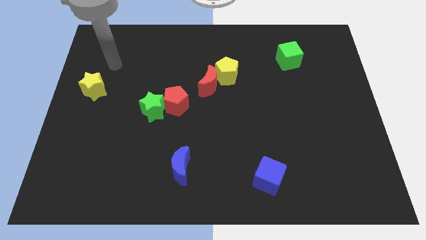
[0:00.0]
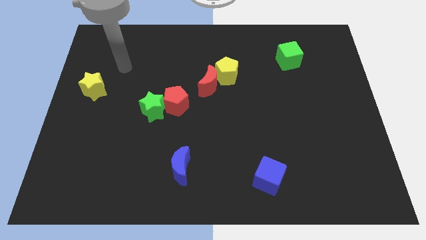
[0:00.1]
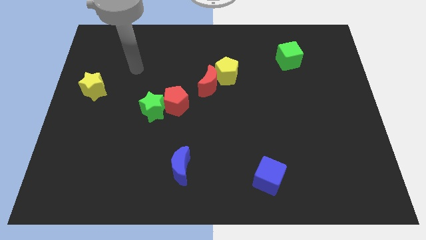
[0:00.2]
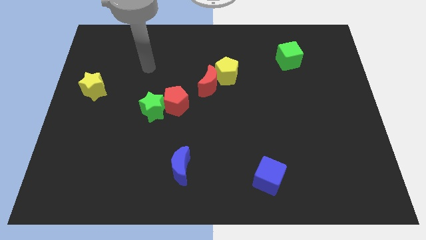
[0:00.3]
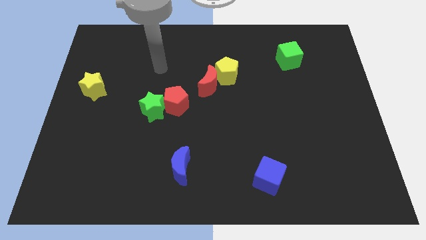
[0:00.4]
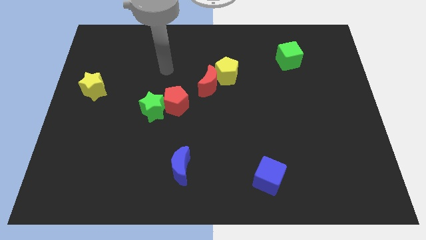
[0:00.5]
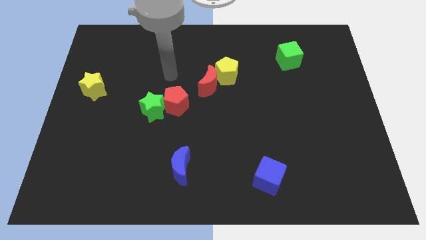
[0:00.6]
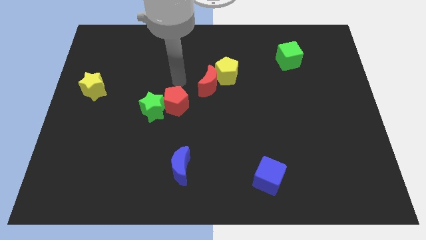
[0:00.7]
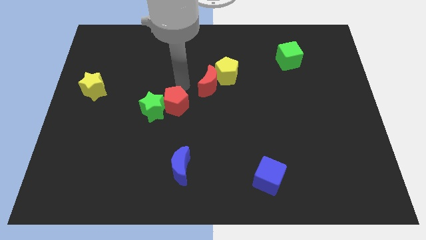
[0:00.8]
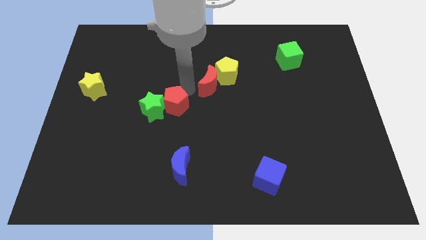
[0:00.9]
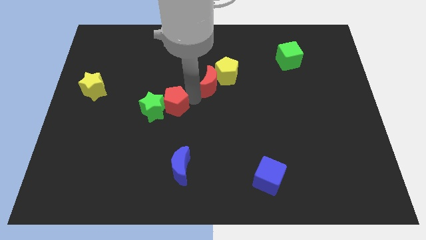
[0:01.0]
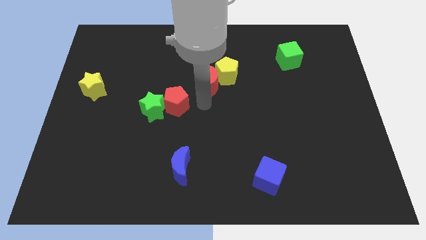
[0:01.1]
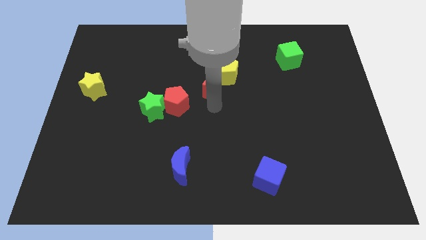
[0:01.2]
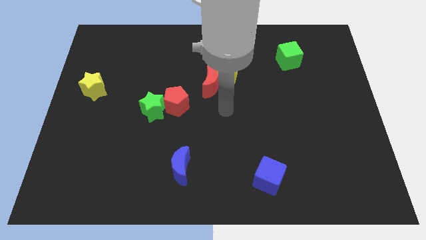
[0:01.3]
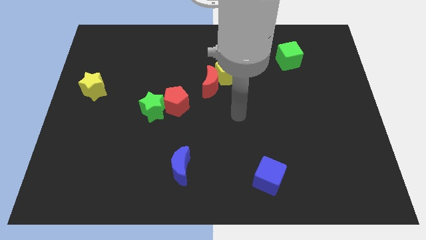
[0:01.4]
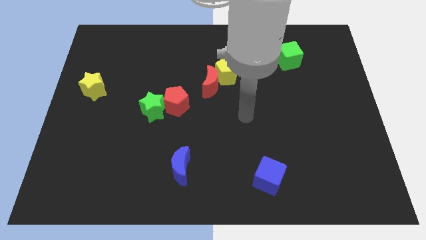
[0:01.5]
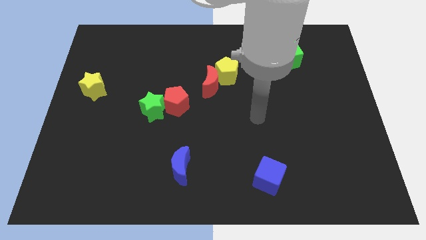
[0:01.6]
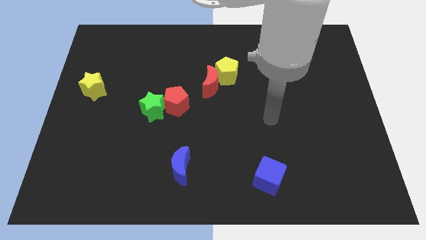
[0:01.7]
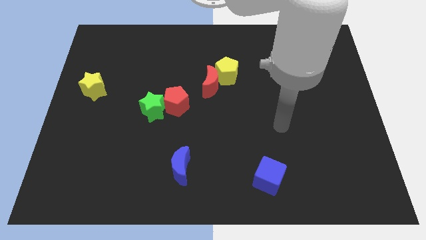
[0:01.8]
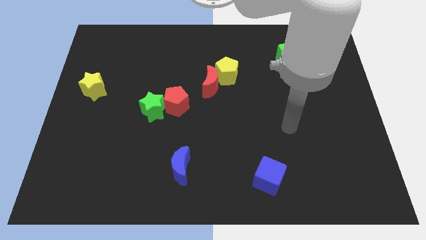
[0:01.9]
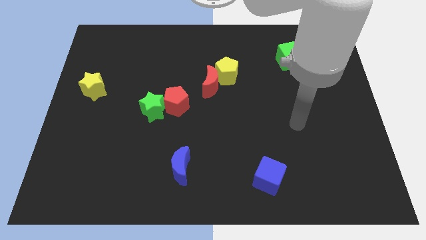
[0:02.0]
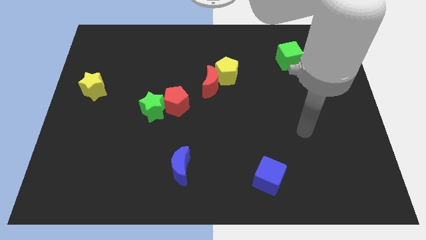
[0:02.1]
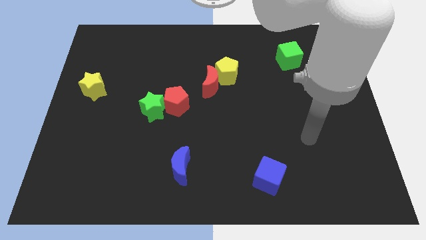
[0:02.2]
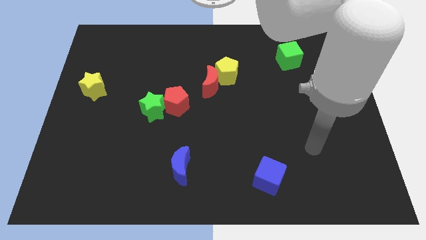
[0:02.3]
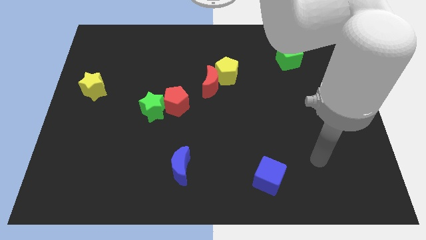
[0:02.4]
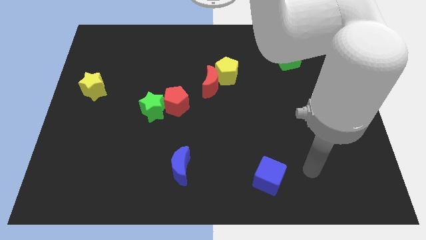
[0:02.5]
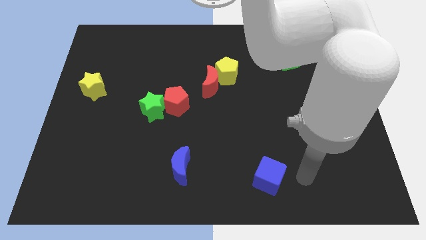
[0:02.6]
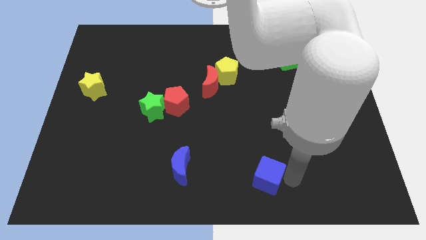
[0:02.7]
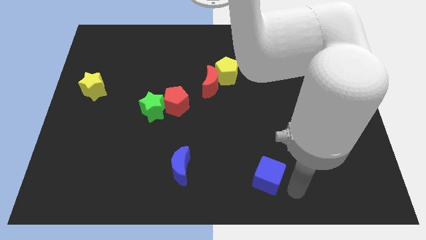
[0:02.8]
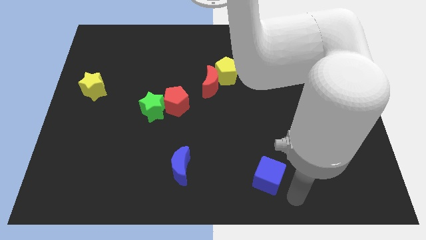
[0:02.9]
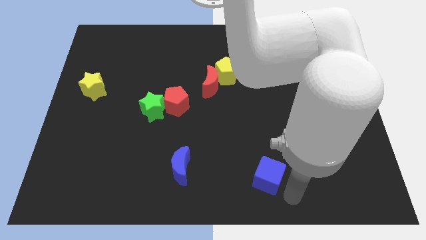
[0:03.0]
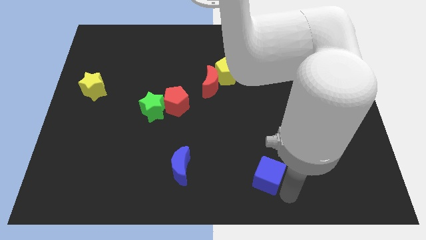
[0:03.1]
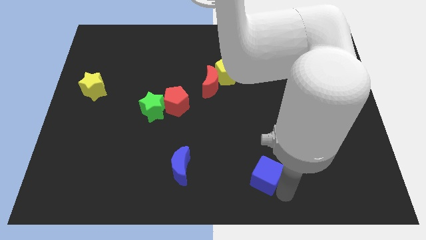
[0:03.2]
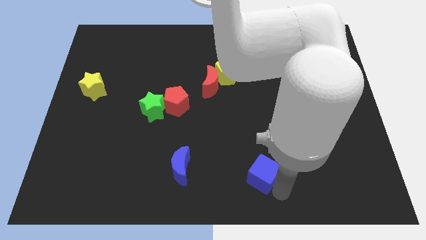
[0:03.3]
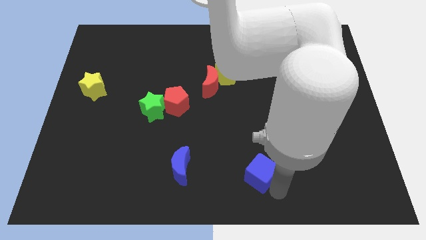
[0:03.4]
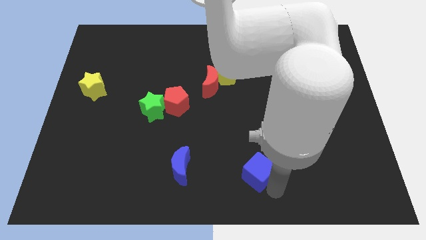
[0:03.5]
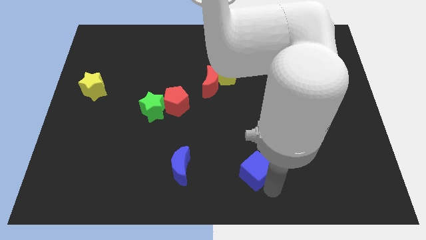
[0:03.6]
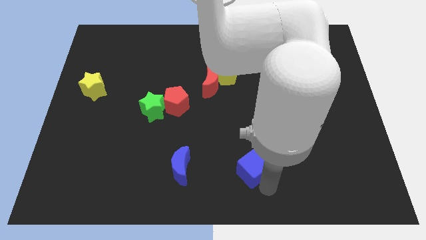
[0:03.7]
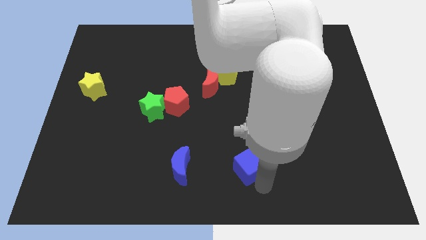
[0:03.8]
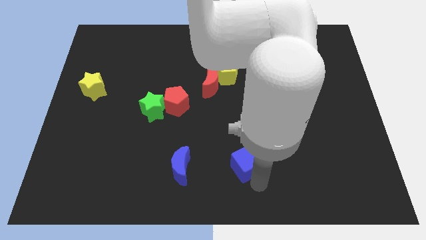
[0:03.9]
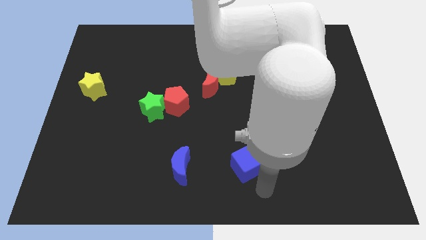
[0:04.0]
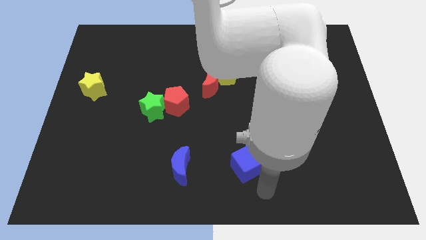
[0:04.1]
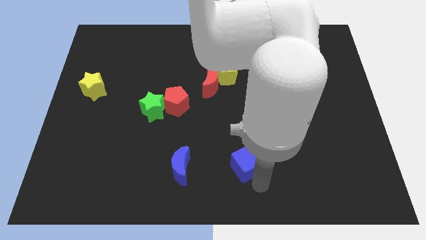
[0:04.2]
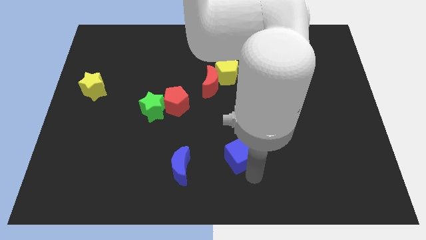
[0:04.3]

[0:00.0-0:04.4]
move the blue cube a little bit diagonally up and to the left

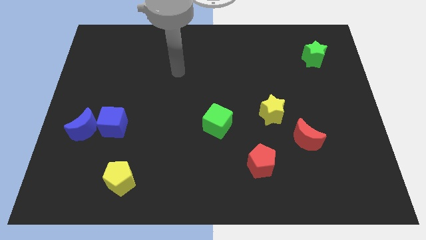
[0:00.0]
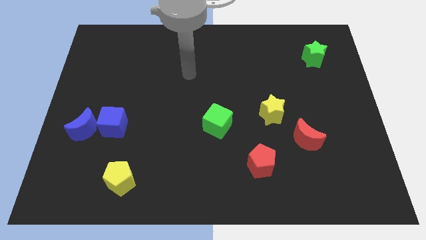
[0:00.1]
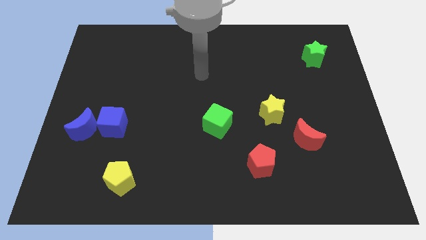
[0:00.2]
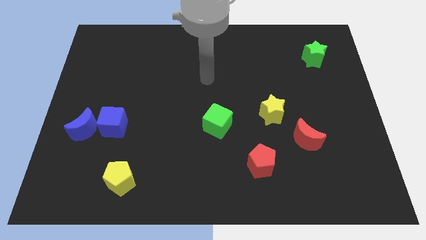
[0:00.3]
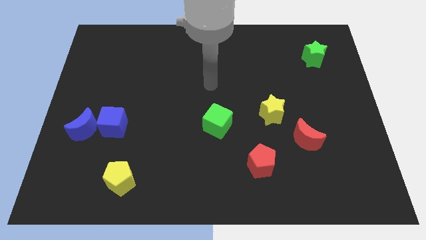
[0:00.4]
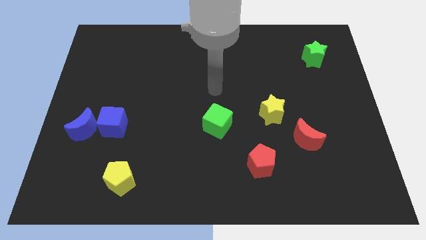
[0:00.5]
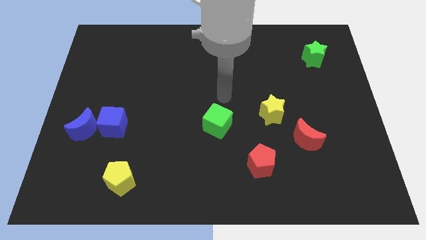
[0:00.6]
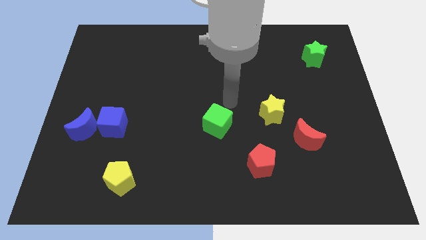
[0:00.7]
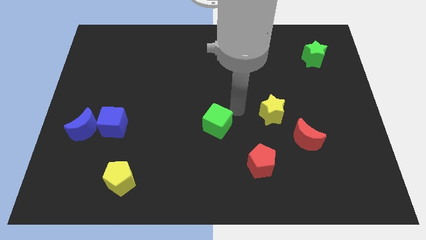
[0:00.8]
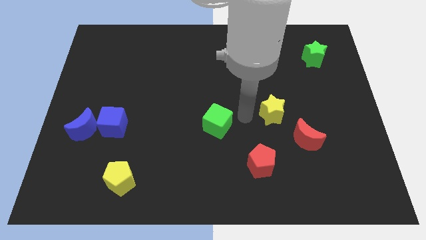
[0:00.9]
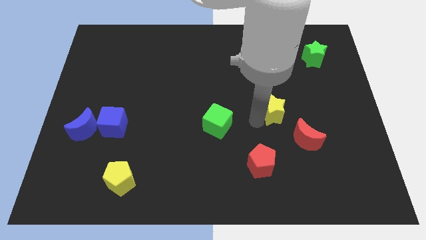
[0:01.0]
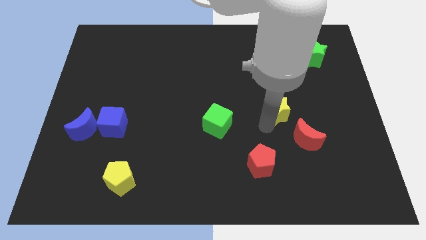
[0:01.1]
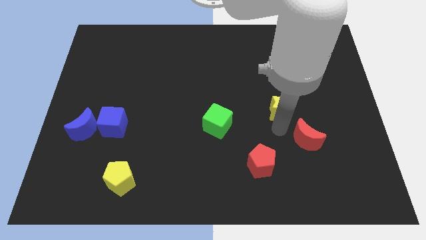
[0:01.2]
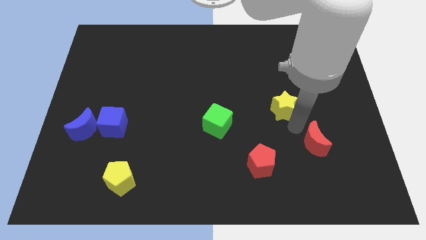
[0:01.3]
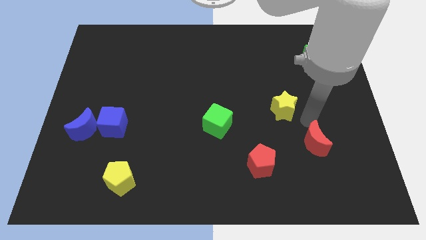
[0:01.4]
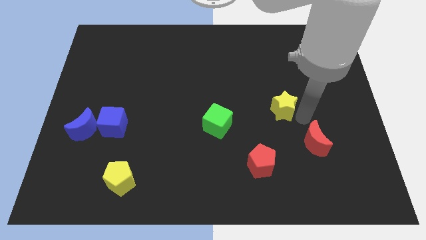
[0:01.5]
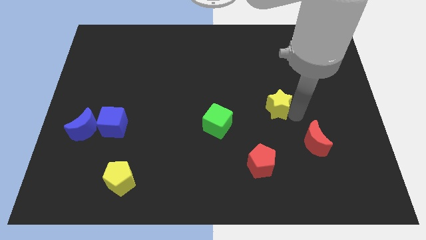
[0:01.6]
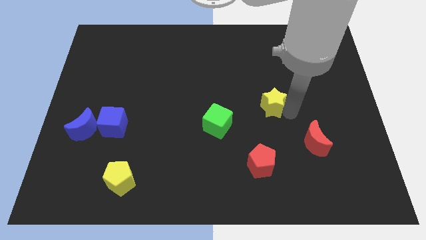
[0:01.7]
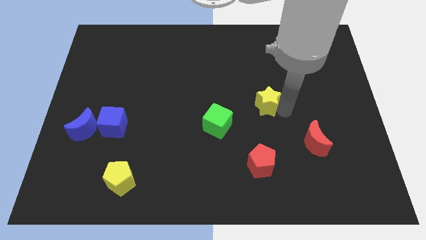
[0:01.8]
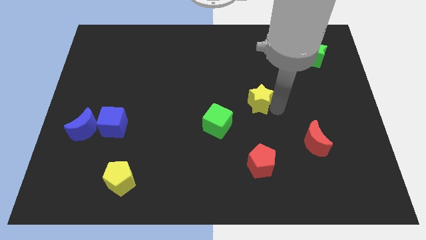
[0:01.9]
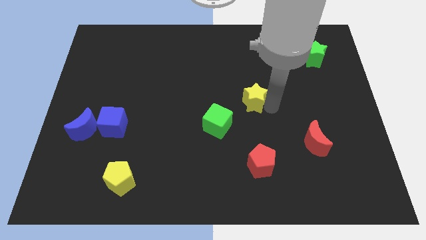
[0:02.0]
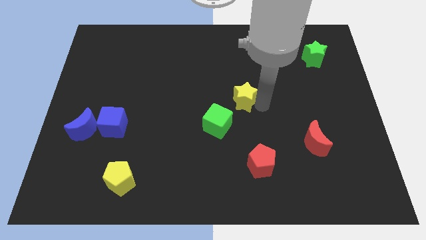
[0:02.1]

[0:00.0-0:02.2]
slide the yellow star up and left diagonally a little bit

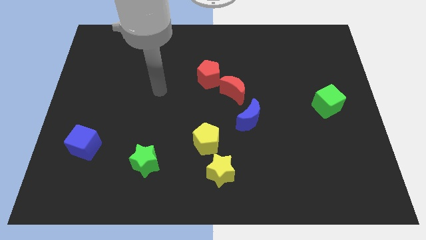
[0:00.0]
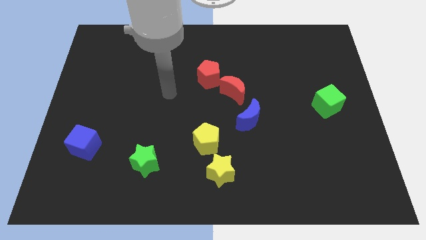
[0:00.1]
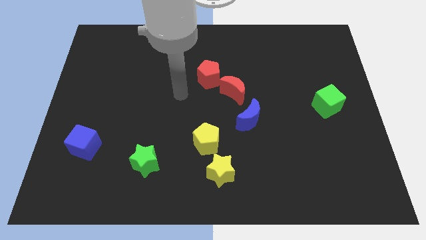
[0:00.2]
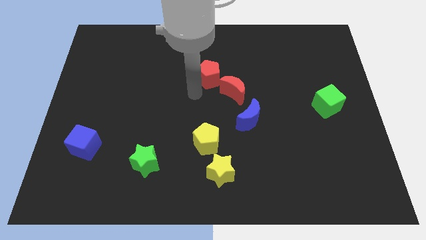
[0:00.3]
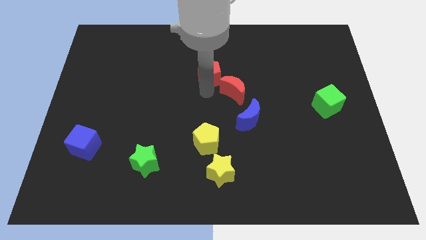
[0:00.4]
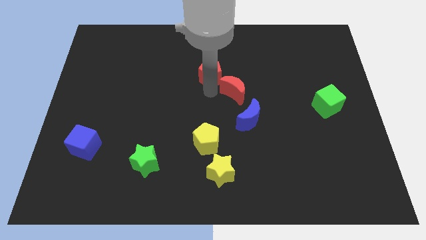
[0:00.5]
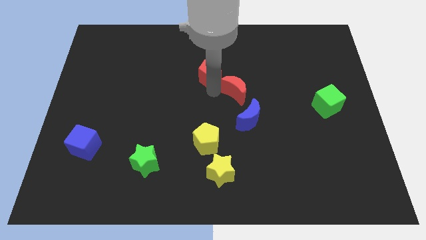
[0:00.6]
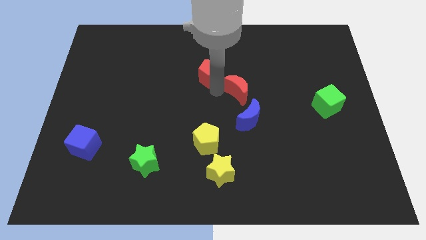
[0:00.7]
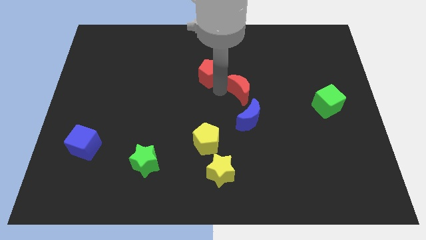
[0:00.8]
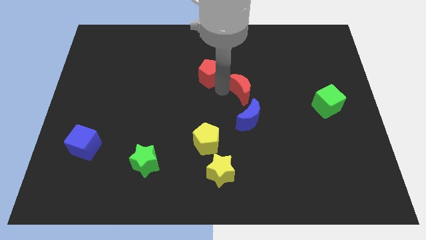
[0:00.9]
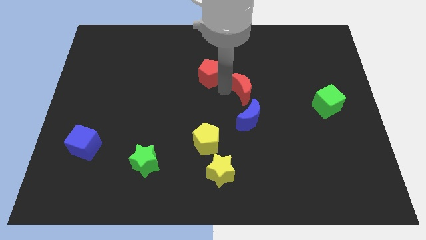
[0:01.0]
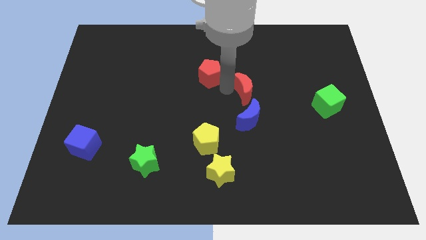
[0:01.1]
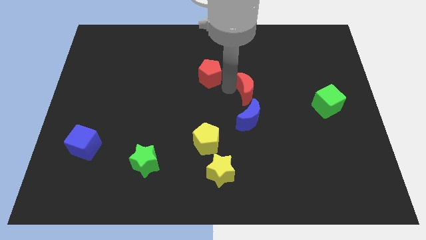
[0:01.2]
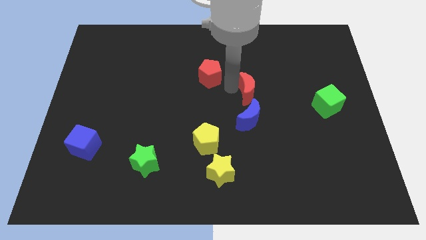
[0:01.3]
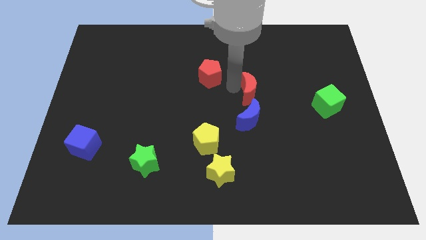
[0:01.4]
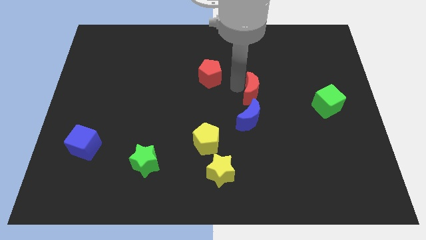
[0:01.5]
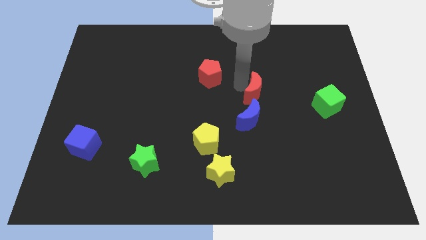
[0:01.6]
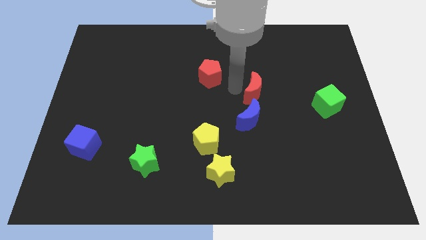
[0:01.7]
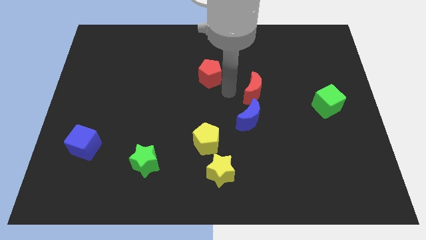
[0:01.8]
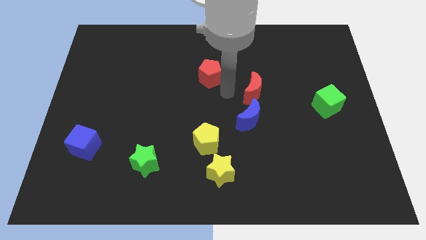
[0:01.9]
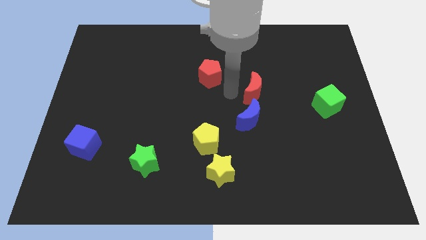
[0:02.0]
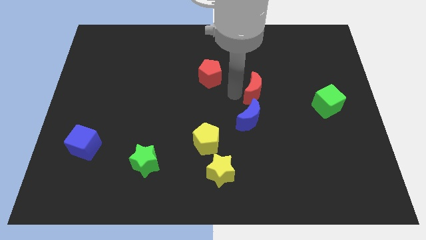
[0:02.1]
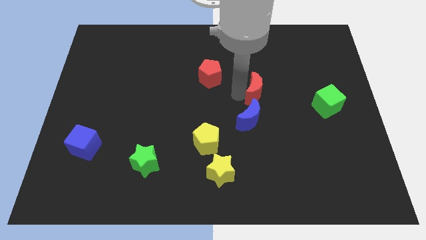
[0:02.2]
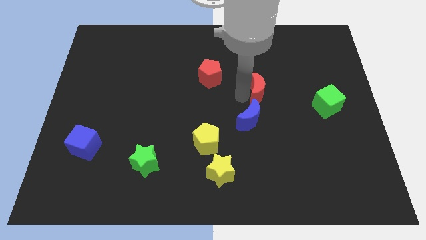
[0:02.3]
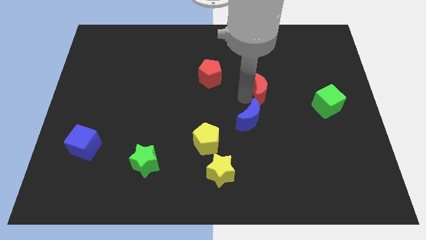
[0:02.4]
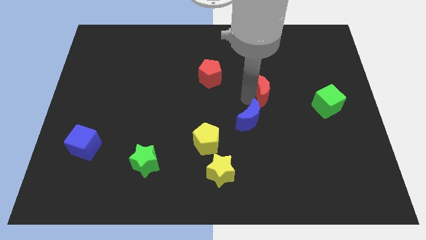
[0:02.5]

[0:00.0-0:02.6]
move the red moon a little to the right
